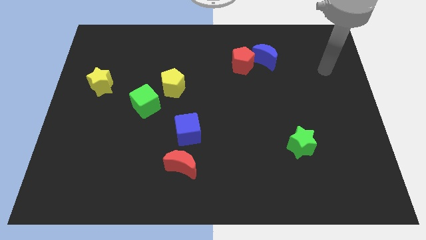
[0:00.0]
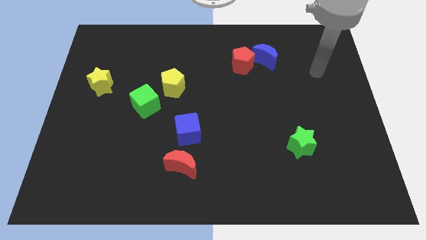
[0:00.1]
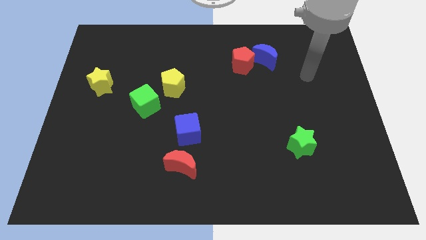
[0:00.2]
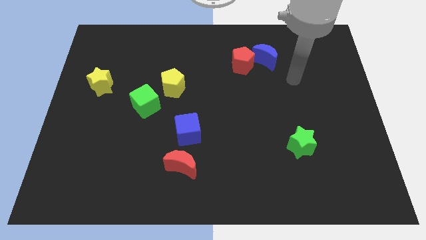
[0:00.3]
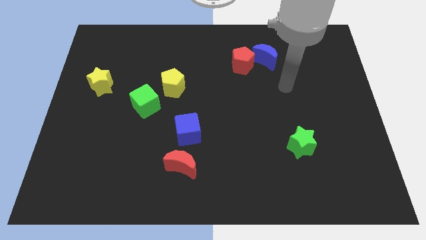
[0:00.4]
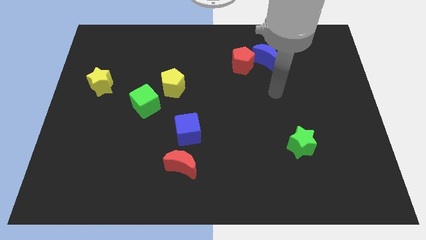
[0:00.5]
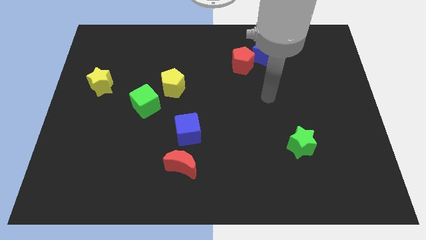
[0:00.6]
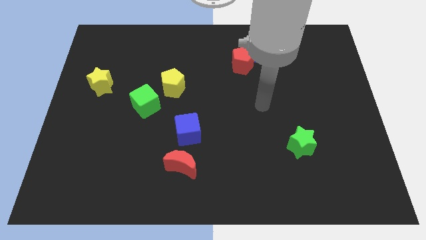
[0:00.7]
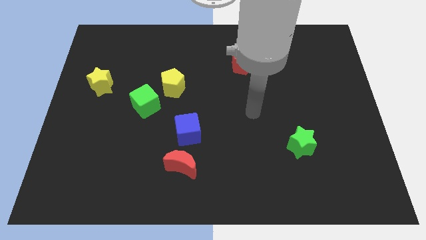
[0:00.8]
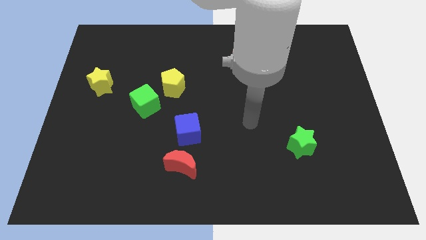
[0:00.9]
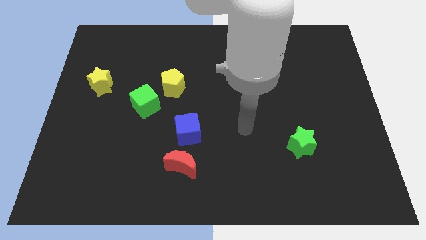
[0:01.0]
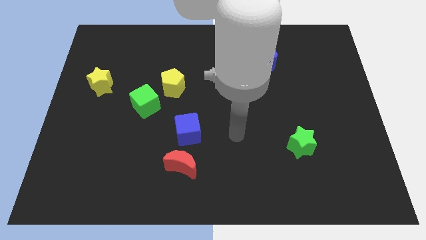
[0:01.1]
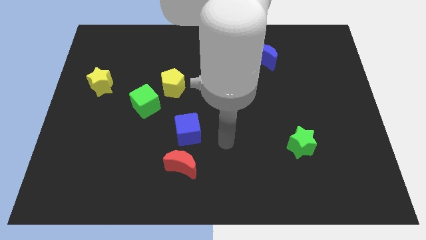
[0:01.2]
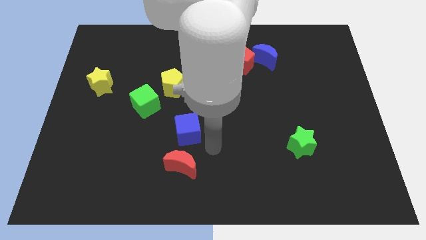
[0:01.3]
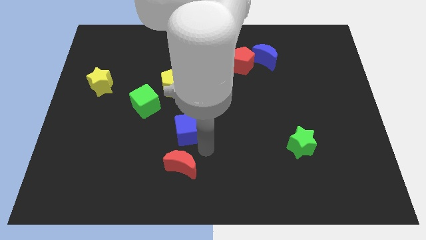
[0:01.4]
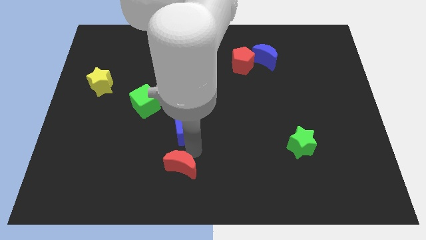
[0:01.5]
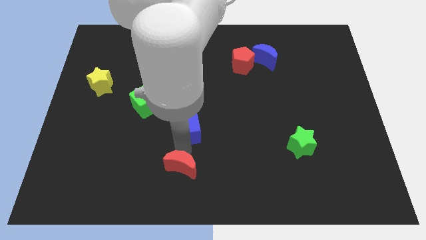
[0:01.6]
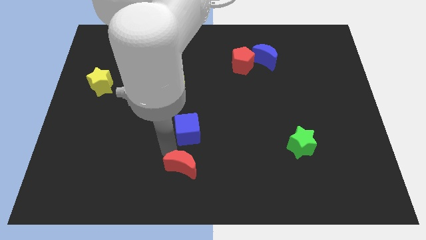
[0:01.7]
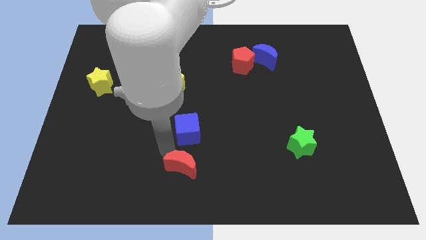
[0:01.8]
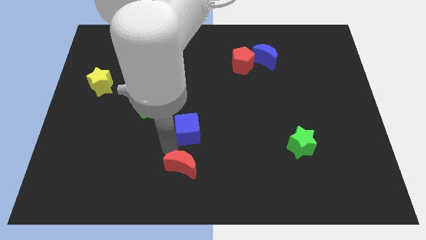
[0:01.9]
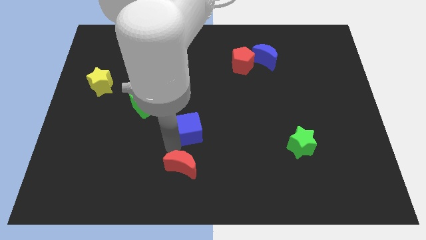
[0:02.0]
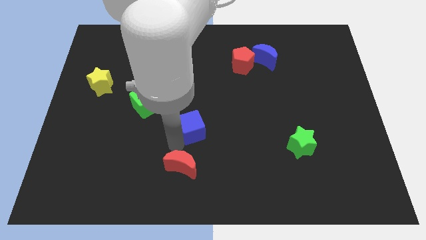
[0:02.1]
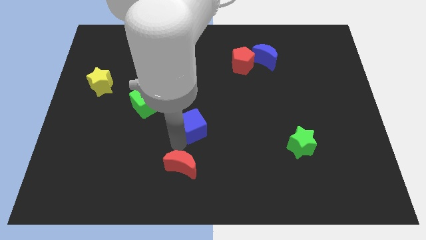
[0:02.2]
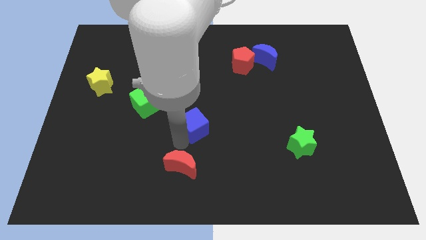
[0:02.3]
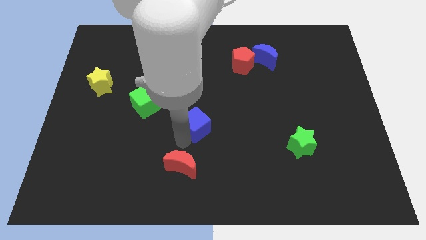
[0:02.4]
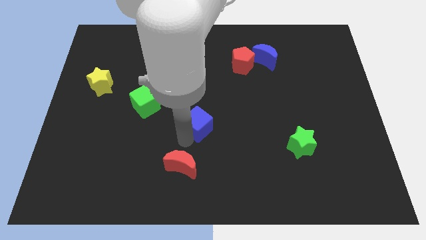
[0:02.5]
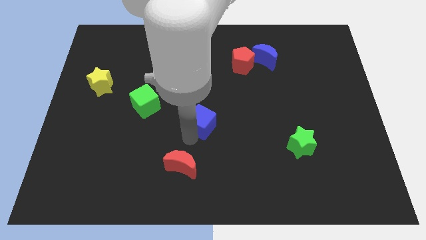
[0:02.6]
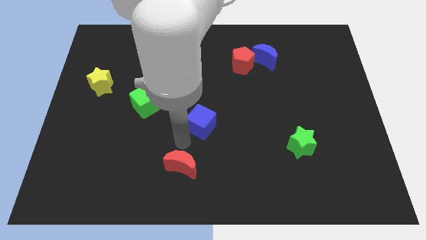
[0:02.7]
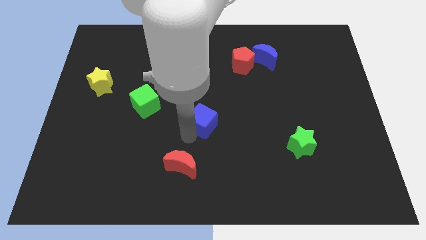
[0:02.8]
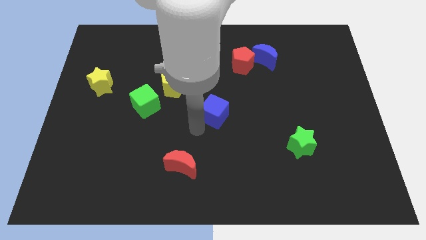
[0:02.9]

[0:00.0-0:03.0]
slightly push the blue cube diagonally upwards and to the right

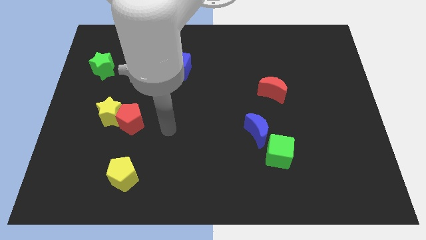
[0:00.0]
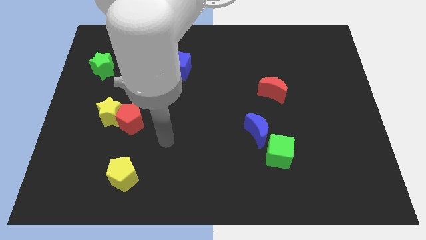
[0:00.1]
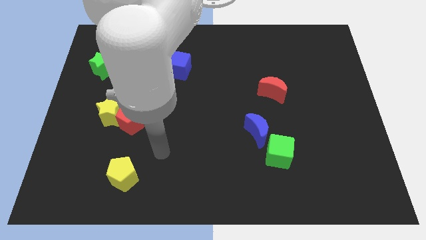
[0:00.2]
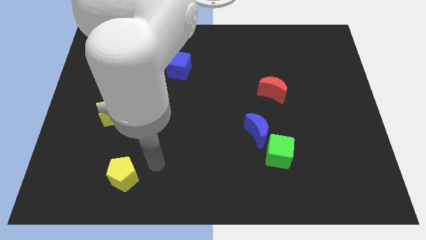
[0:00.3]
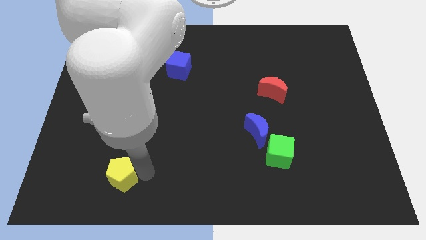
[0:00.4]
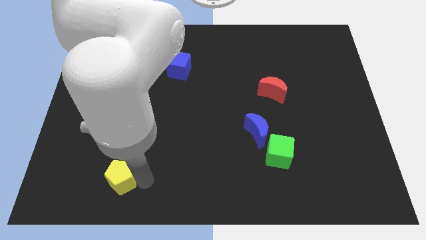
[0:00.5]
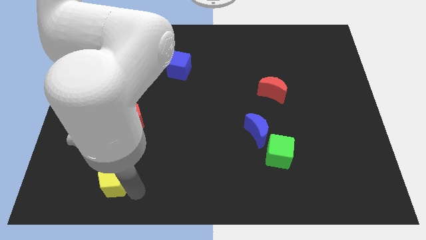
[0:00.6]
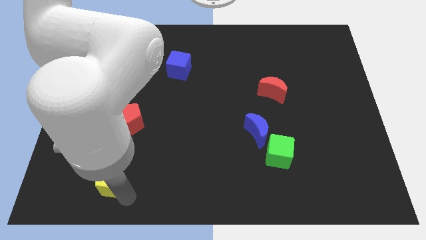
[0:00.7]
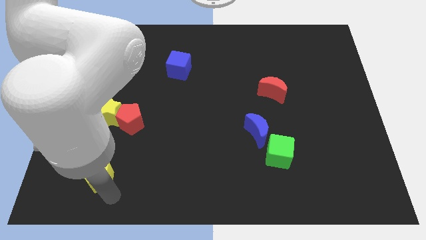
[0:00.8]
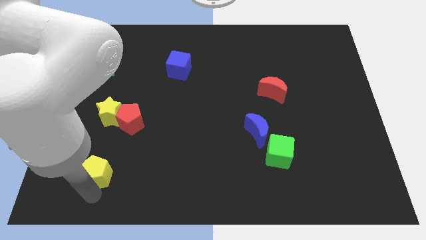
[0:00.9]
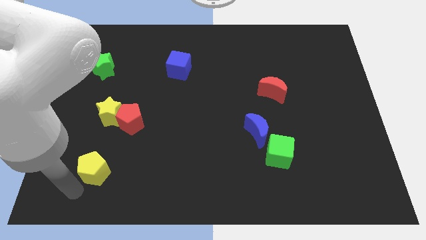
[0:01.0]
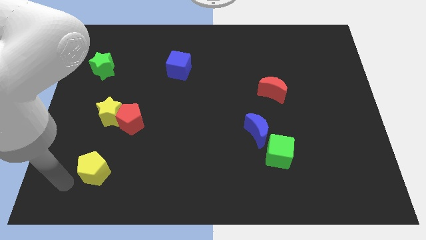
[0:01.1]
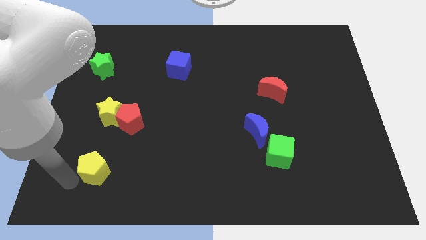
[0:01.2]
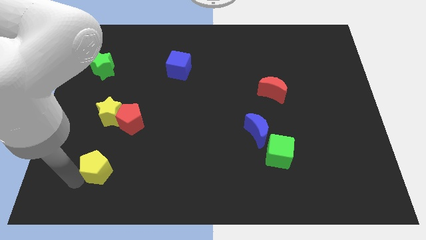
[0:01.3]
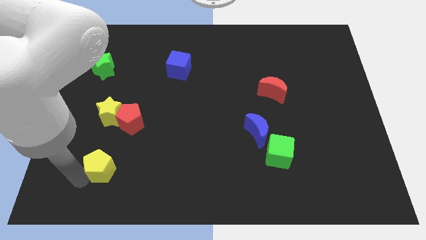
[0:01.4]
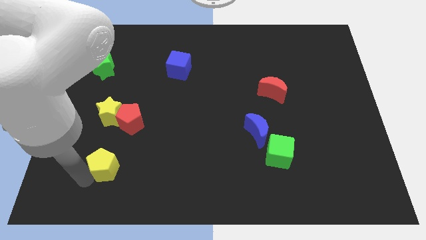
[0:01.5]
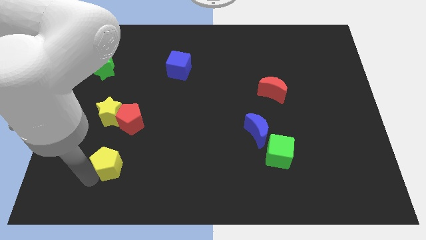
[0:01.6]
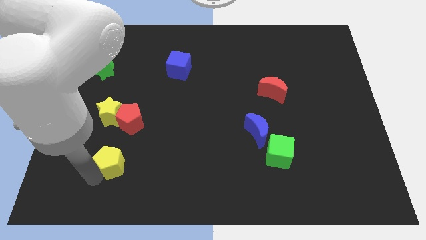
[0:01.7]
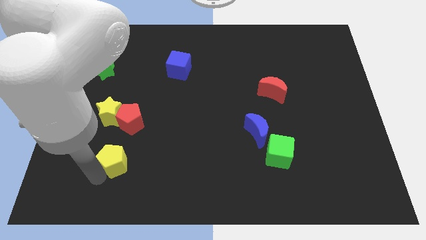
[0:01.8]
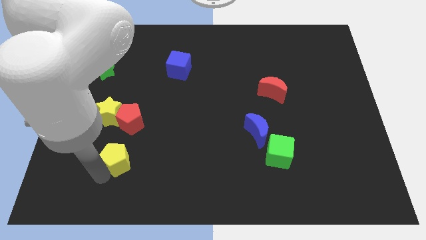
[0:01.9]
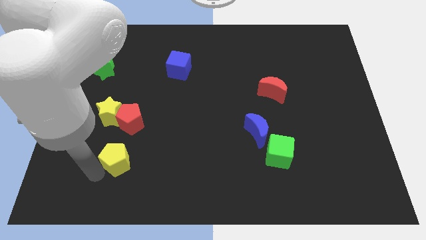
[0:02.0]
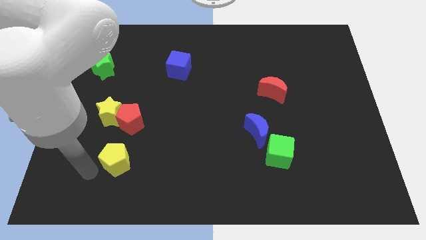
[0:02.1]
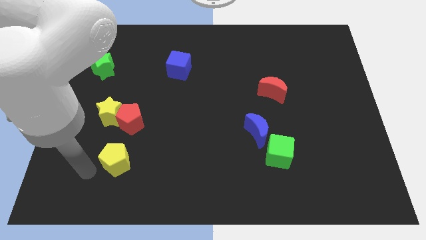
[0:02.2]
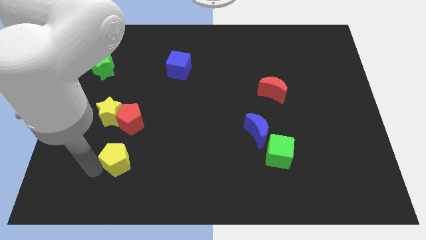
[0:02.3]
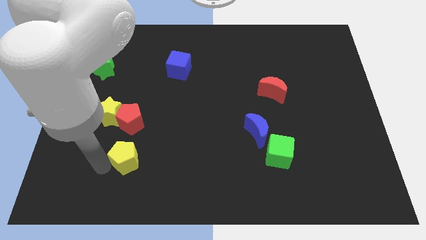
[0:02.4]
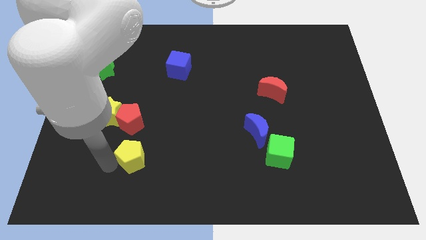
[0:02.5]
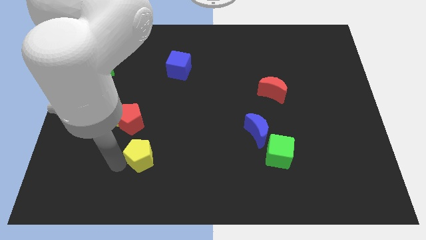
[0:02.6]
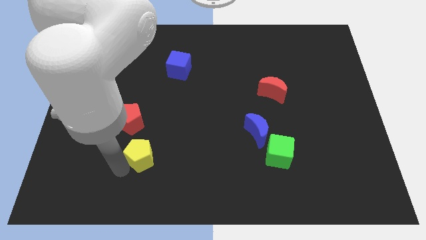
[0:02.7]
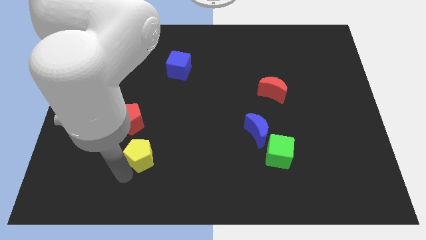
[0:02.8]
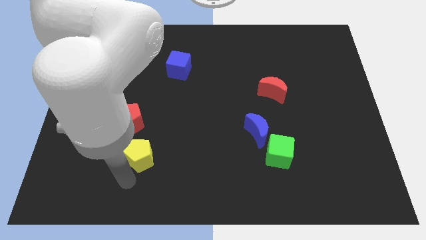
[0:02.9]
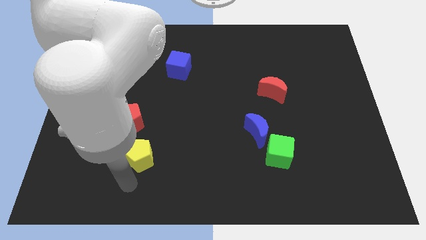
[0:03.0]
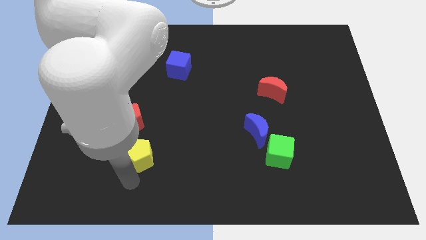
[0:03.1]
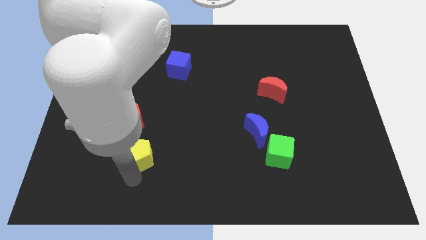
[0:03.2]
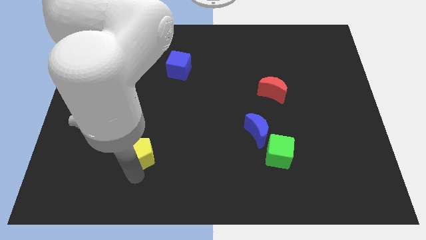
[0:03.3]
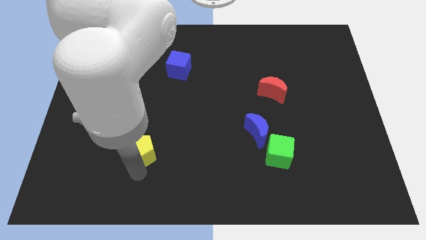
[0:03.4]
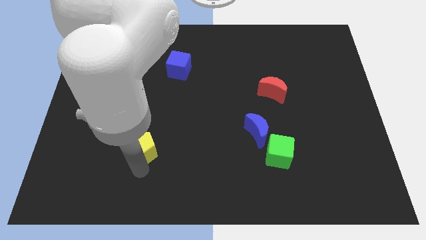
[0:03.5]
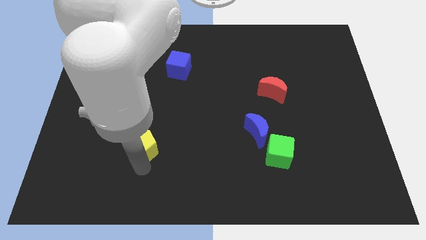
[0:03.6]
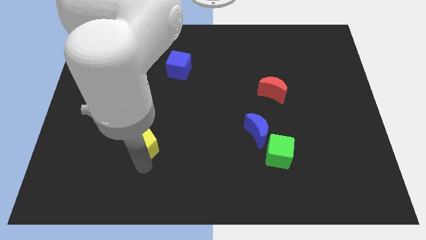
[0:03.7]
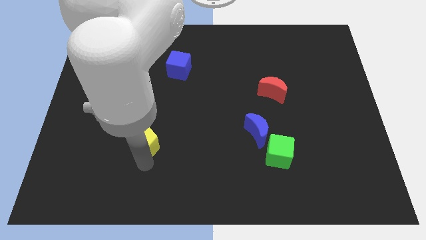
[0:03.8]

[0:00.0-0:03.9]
slide the yellow pentagon upwards a bit

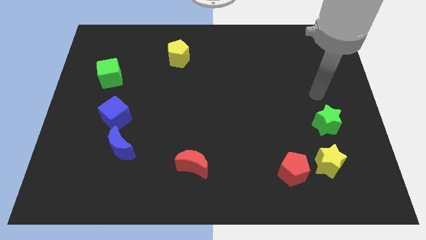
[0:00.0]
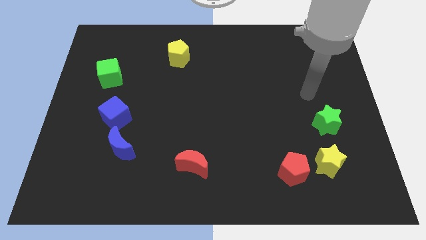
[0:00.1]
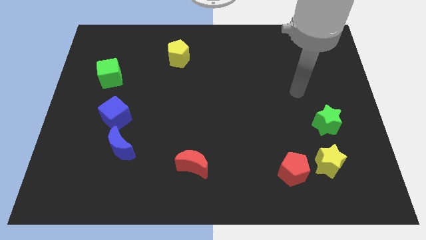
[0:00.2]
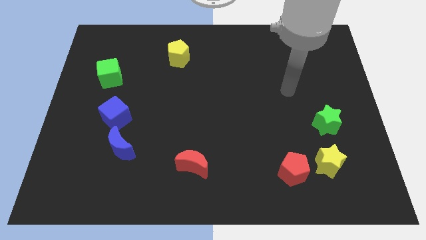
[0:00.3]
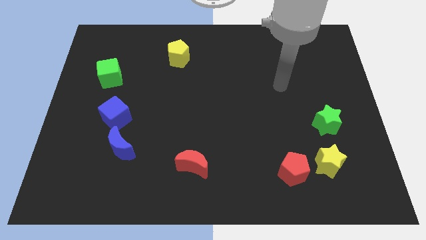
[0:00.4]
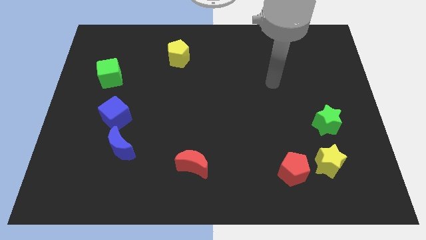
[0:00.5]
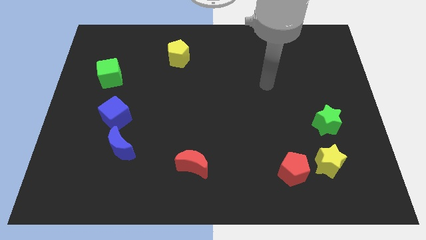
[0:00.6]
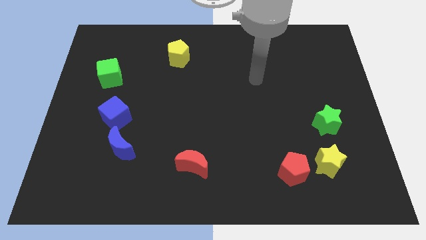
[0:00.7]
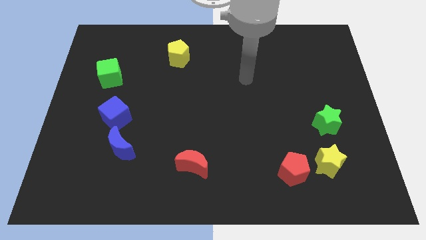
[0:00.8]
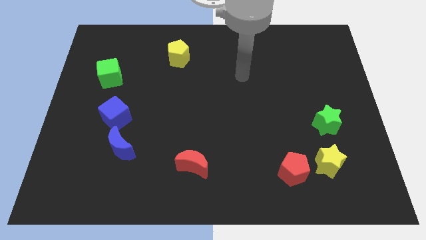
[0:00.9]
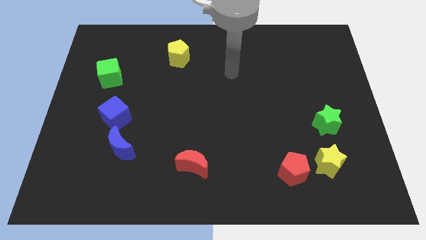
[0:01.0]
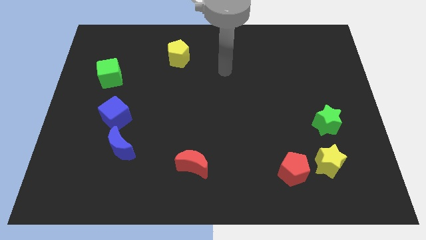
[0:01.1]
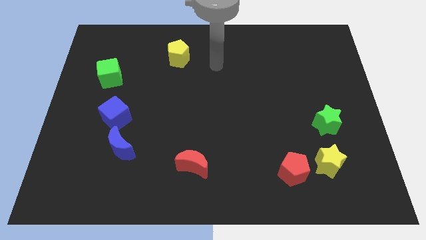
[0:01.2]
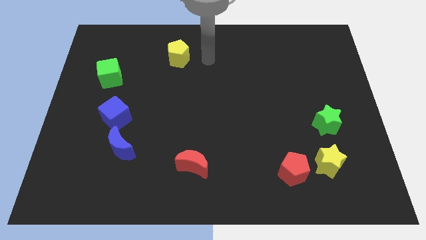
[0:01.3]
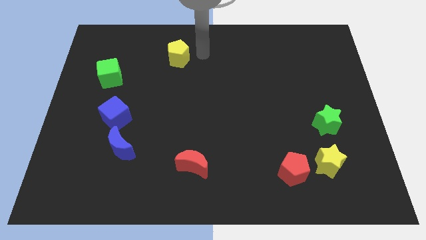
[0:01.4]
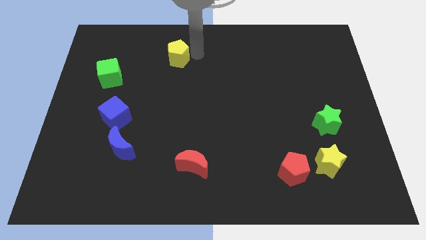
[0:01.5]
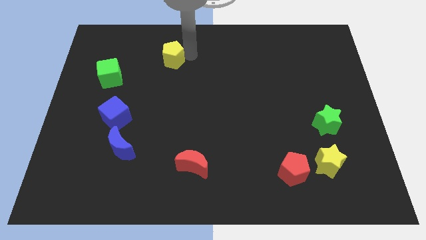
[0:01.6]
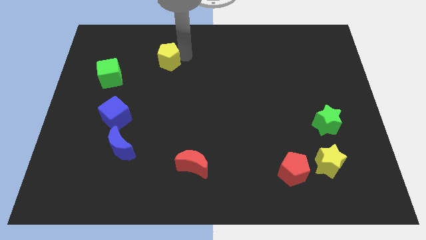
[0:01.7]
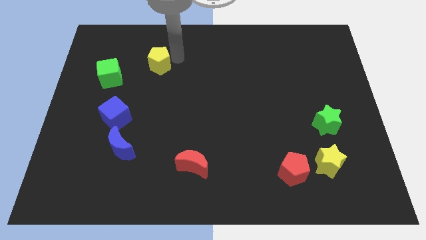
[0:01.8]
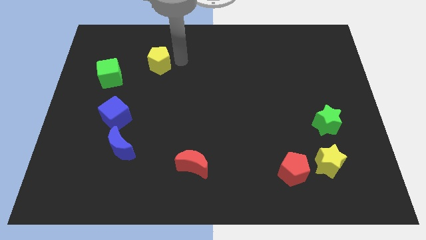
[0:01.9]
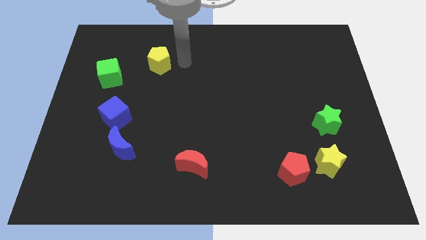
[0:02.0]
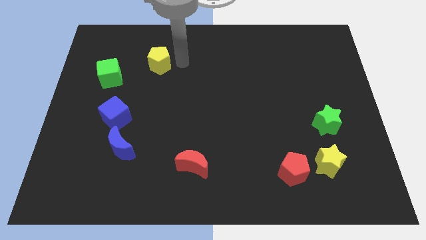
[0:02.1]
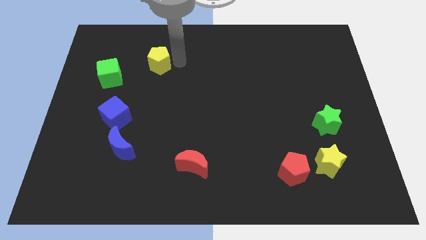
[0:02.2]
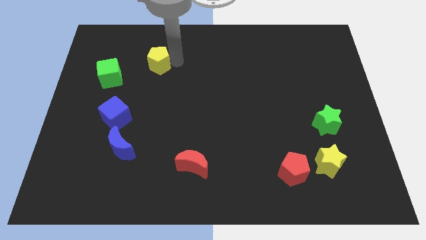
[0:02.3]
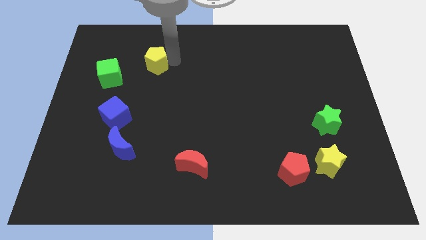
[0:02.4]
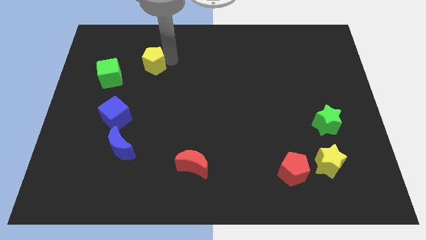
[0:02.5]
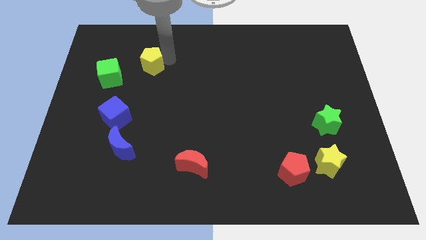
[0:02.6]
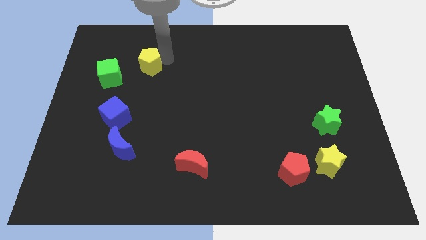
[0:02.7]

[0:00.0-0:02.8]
slide the yellow pentagon left a little
